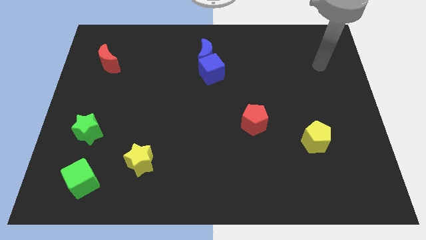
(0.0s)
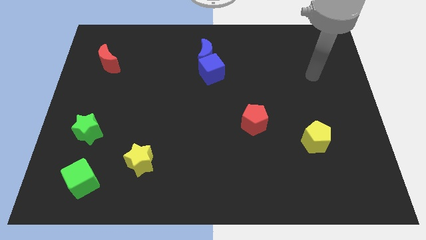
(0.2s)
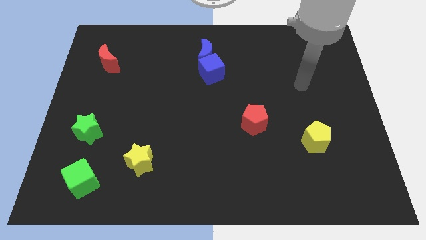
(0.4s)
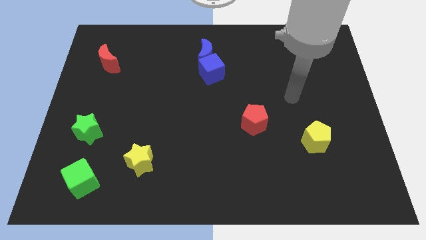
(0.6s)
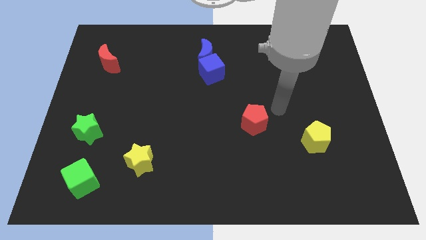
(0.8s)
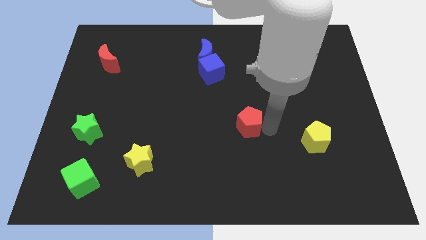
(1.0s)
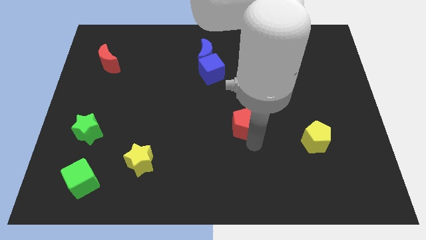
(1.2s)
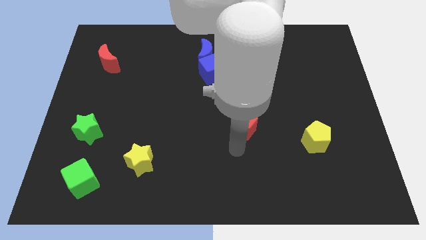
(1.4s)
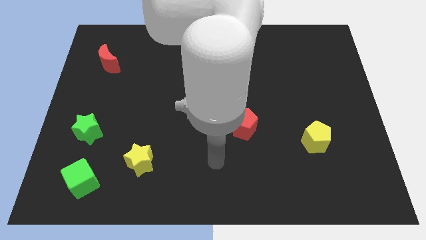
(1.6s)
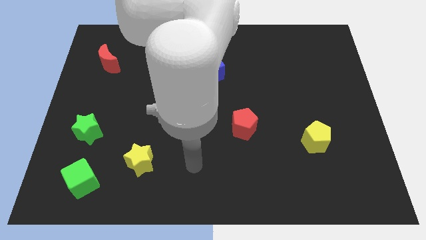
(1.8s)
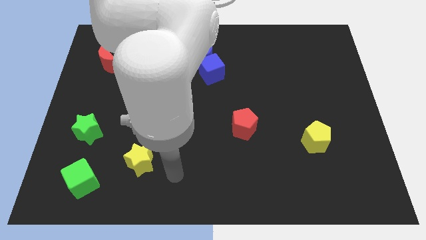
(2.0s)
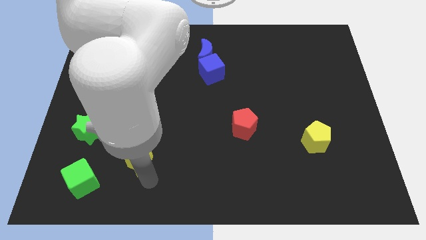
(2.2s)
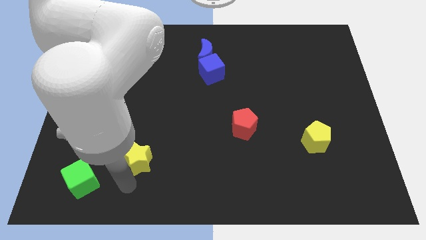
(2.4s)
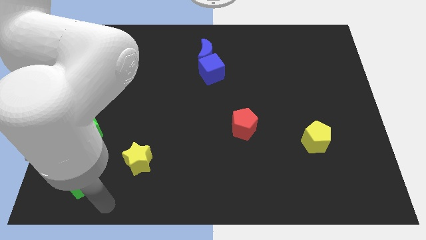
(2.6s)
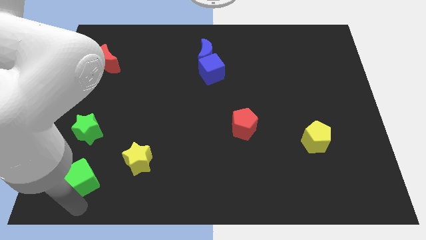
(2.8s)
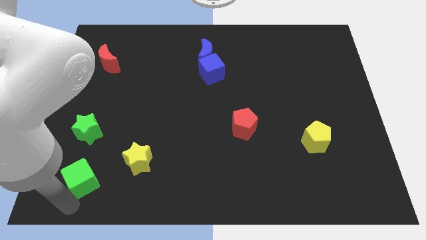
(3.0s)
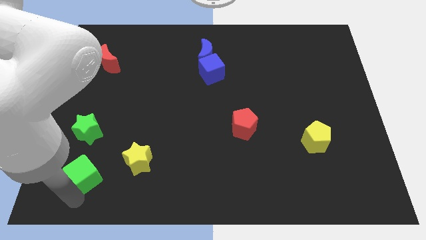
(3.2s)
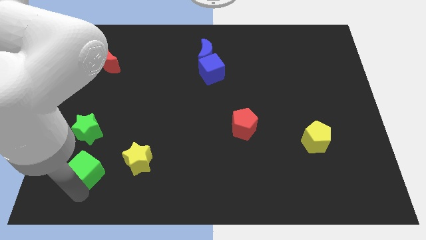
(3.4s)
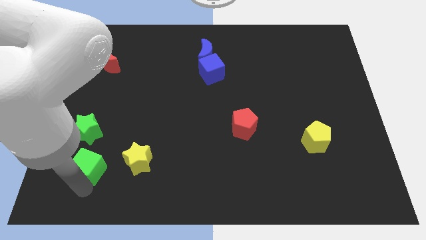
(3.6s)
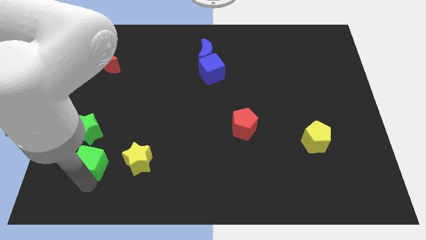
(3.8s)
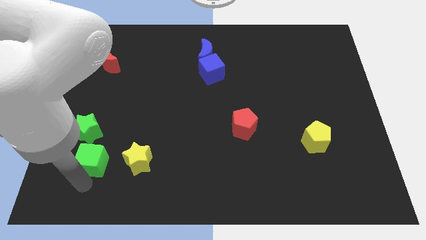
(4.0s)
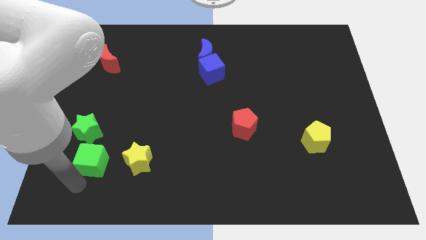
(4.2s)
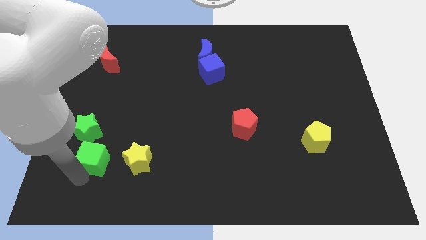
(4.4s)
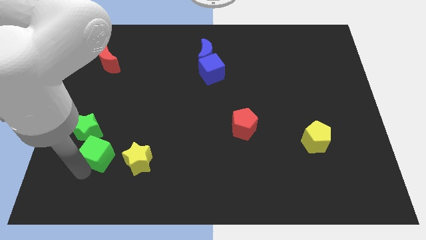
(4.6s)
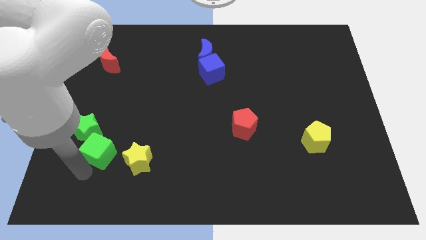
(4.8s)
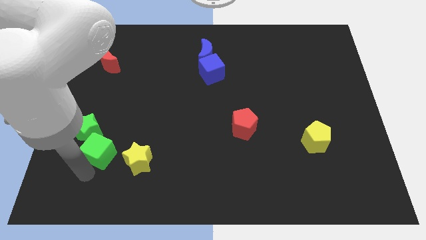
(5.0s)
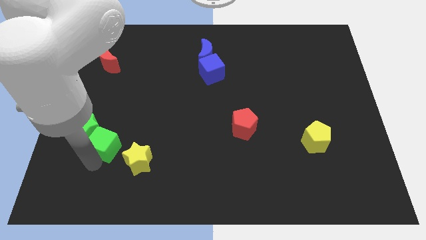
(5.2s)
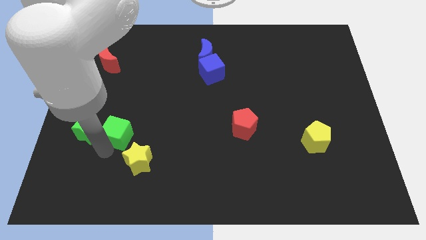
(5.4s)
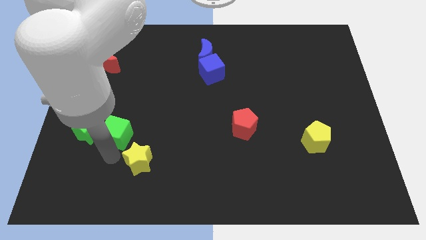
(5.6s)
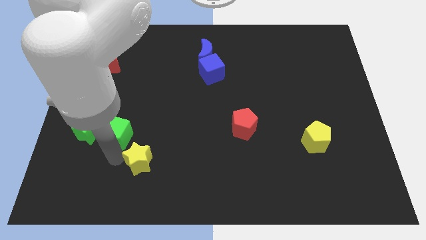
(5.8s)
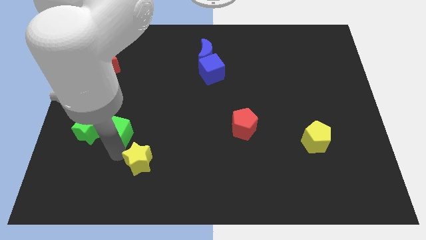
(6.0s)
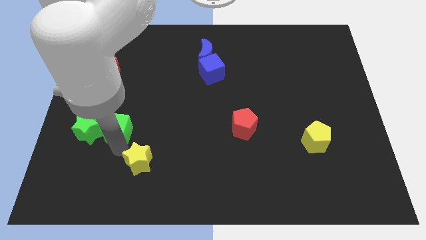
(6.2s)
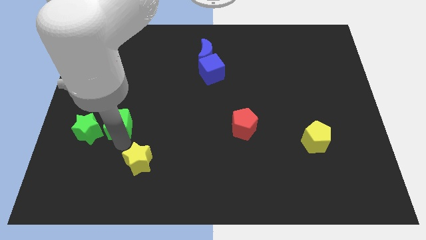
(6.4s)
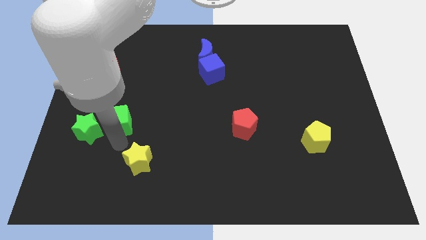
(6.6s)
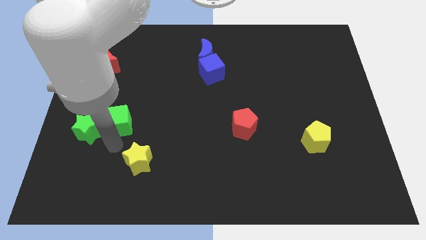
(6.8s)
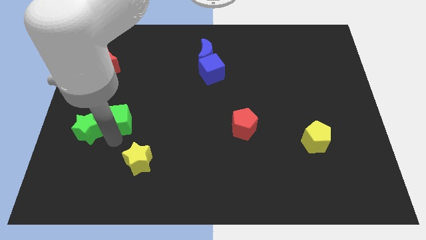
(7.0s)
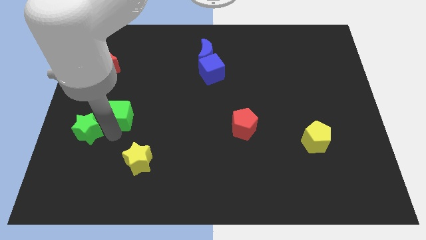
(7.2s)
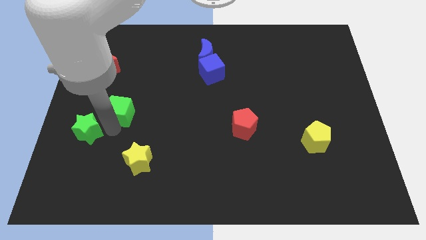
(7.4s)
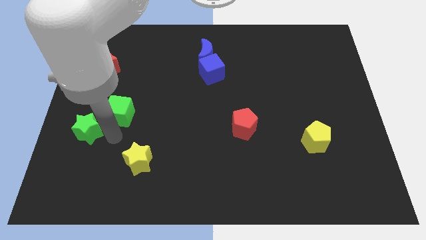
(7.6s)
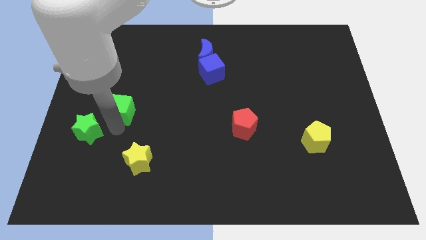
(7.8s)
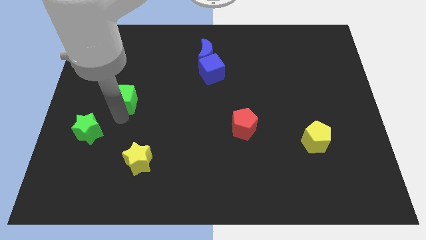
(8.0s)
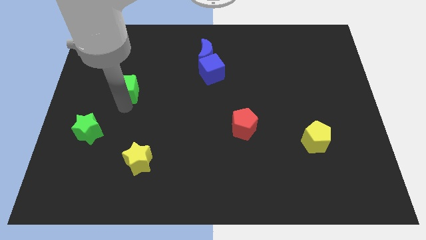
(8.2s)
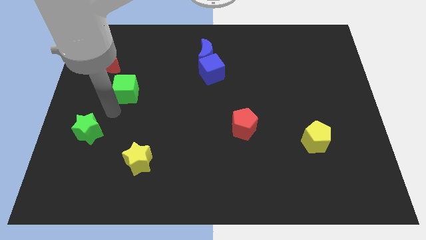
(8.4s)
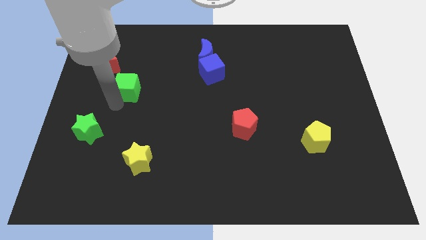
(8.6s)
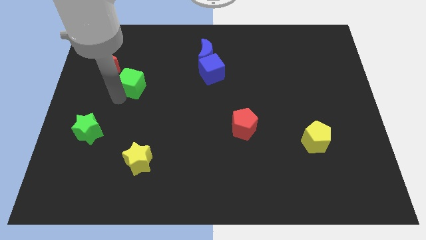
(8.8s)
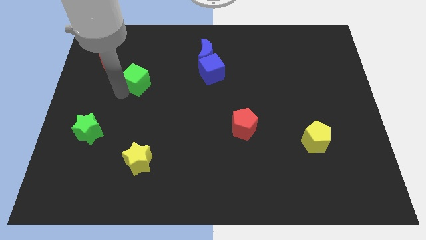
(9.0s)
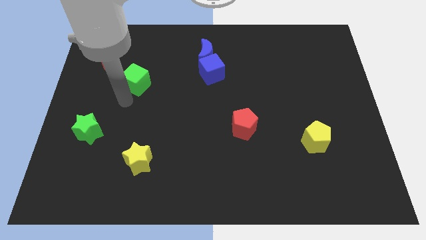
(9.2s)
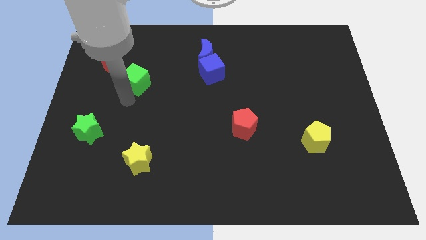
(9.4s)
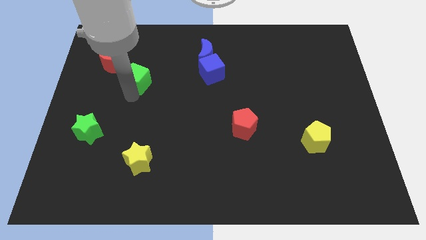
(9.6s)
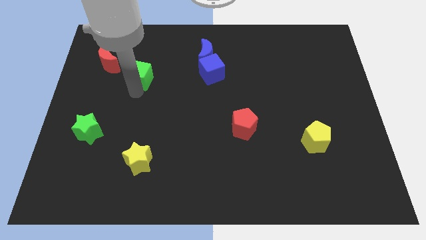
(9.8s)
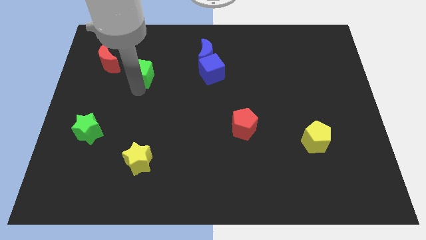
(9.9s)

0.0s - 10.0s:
push the green cube just right of the red moon

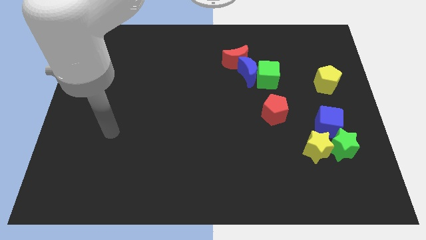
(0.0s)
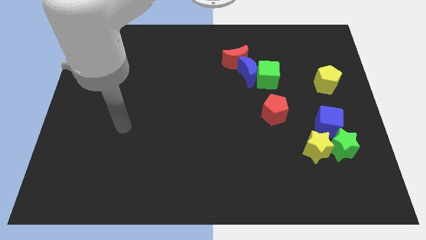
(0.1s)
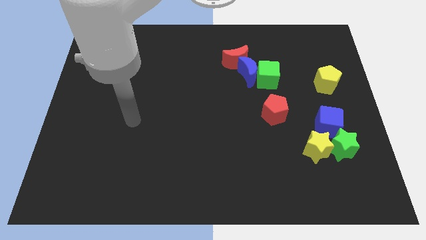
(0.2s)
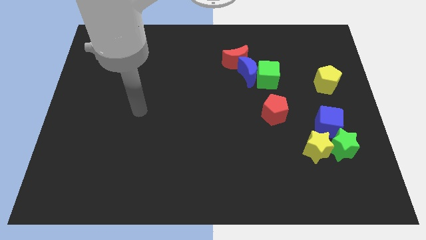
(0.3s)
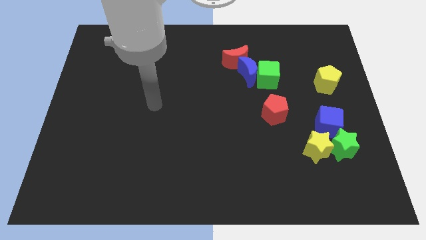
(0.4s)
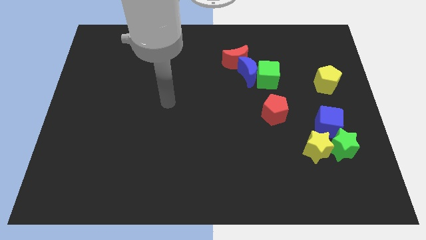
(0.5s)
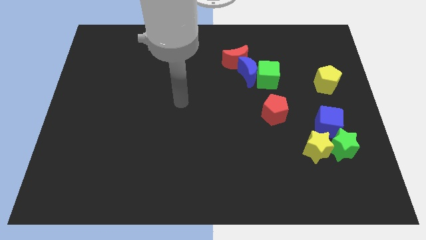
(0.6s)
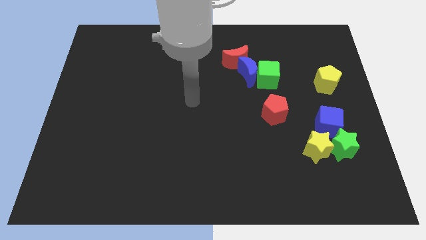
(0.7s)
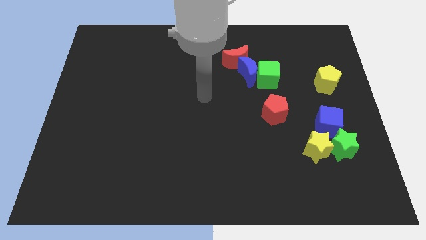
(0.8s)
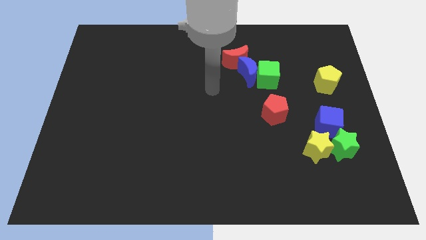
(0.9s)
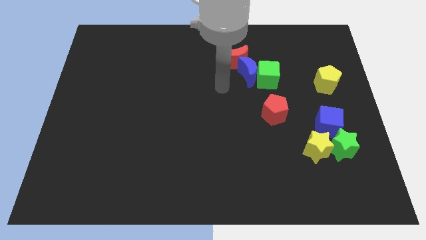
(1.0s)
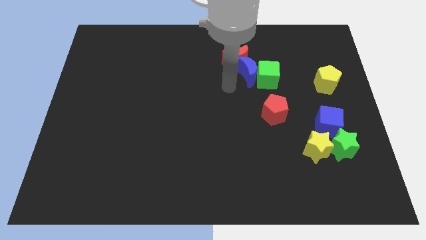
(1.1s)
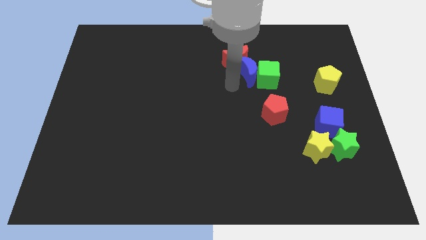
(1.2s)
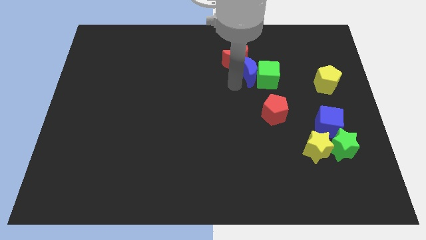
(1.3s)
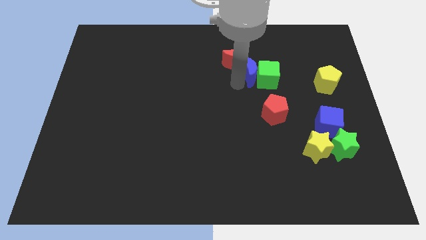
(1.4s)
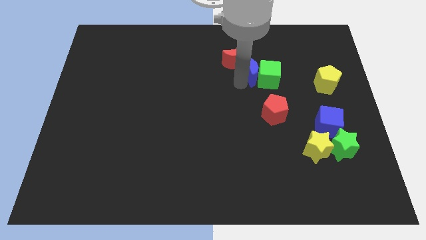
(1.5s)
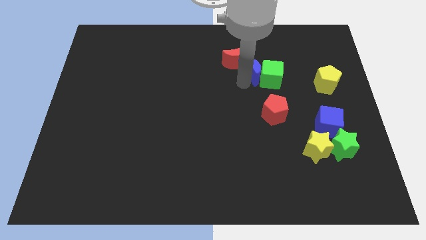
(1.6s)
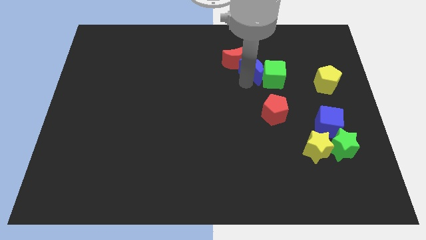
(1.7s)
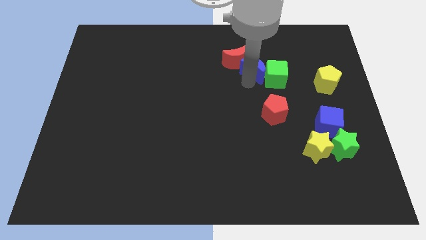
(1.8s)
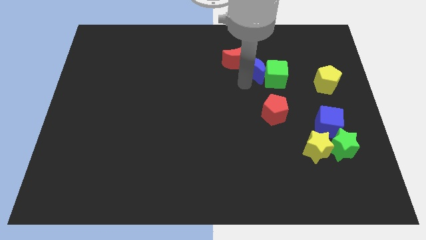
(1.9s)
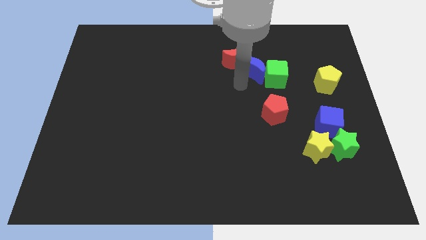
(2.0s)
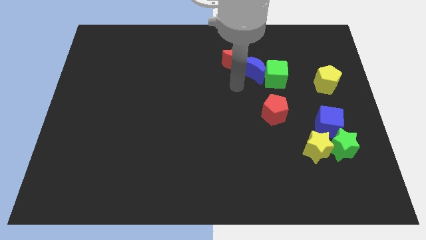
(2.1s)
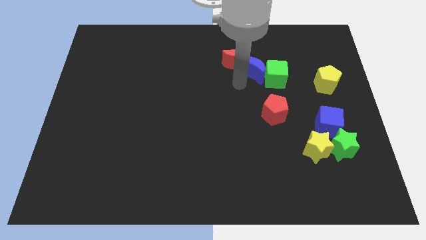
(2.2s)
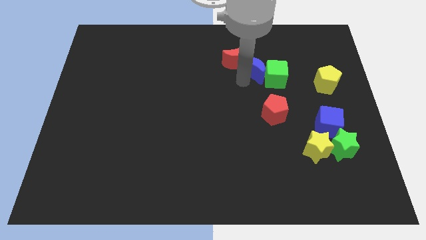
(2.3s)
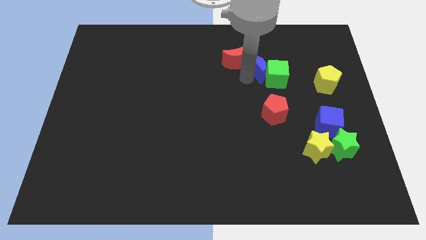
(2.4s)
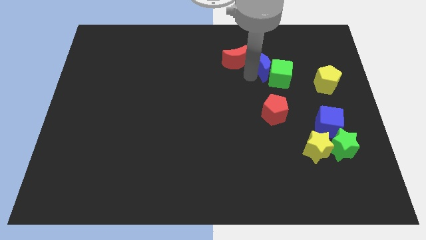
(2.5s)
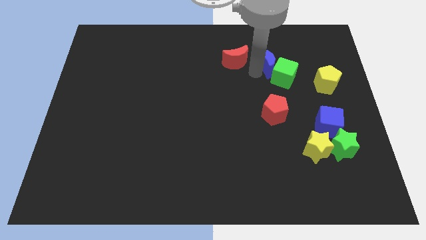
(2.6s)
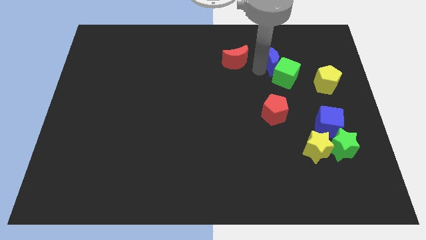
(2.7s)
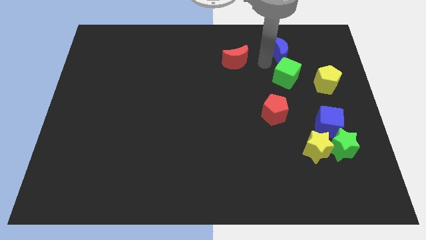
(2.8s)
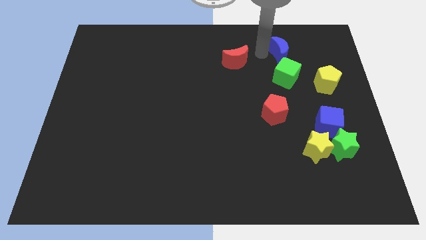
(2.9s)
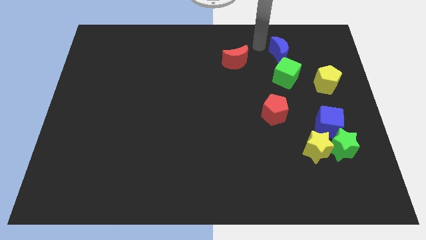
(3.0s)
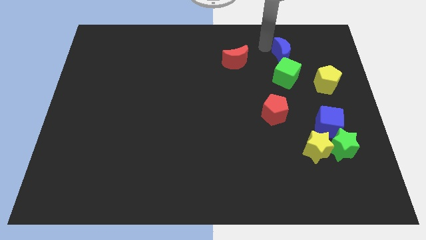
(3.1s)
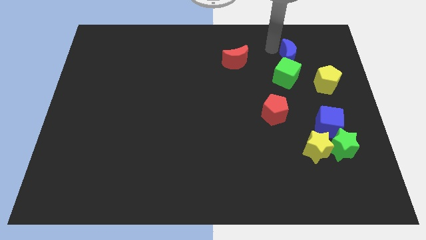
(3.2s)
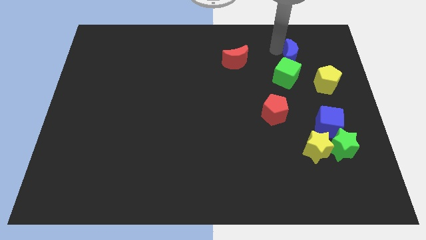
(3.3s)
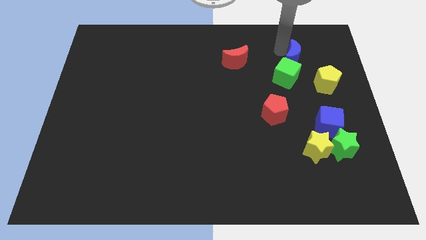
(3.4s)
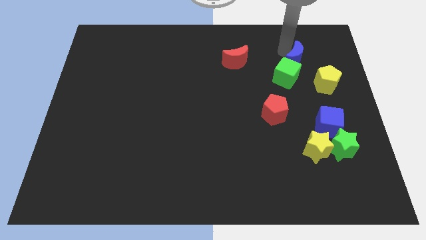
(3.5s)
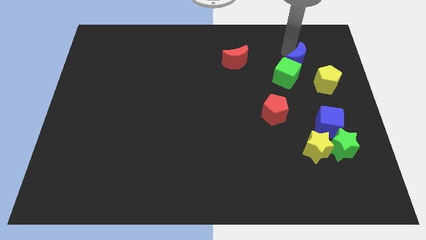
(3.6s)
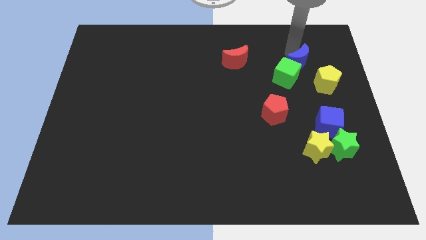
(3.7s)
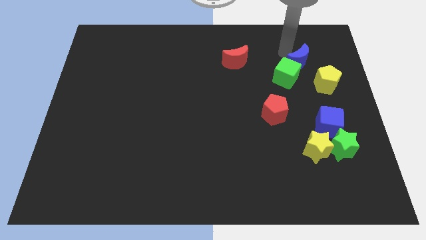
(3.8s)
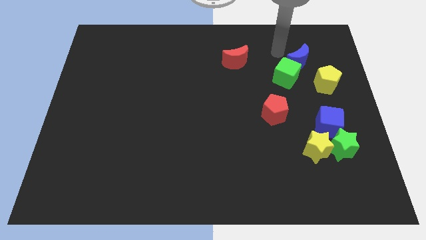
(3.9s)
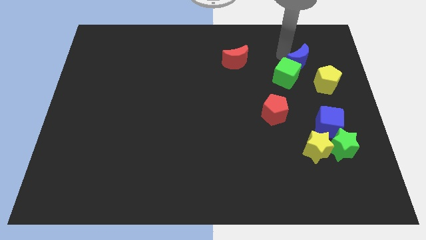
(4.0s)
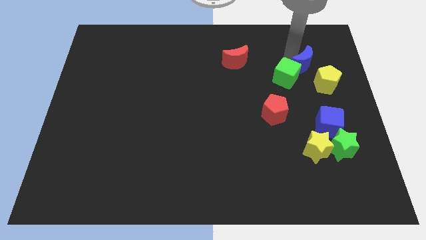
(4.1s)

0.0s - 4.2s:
put the blue moon to the right of the green cube
